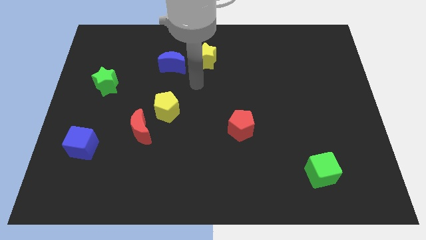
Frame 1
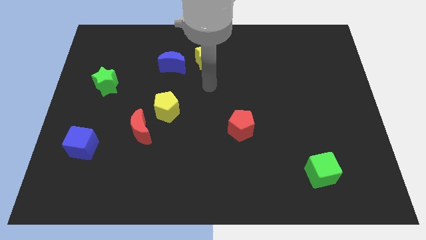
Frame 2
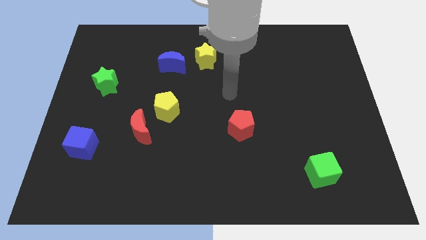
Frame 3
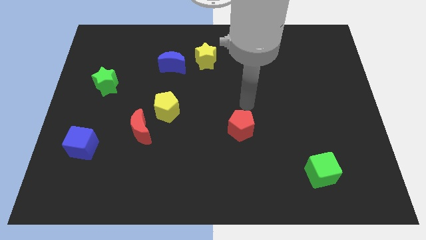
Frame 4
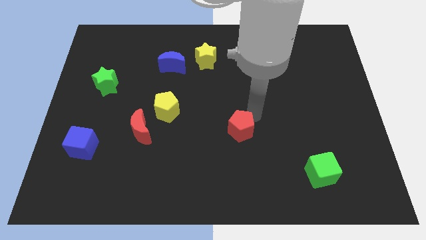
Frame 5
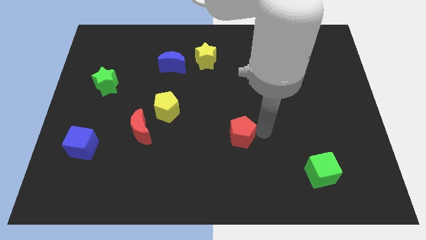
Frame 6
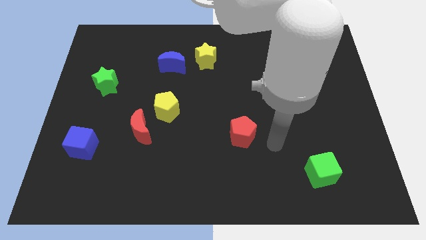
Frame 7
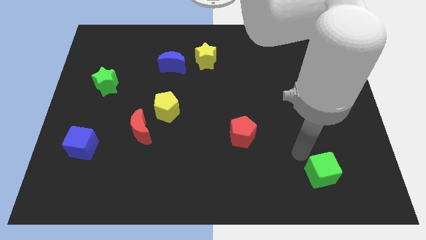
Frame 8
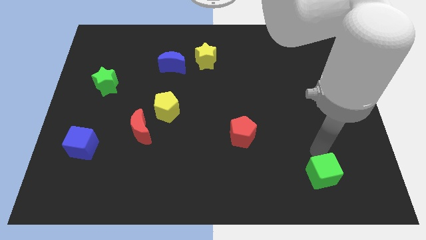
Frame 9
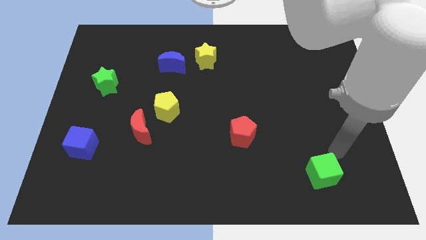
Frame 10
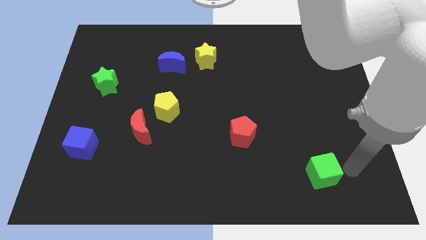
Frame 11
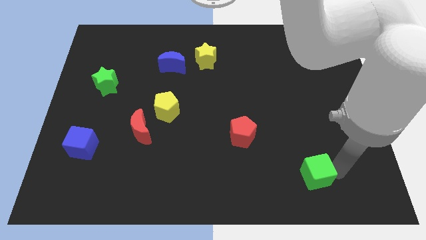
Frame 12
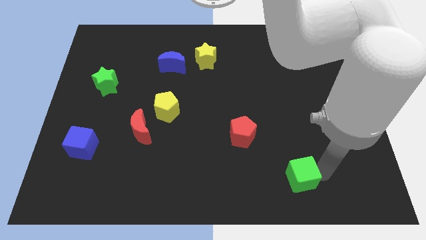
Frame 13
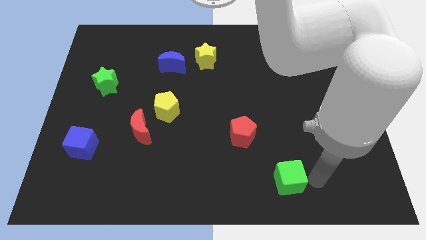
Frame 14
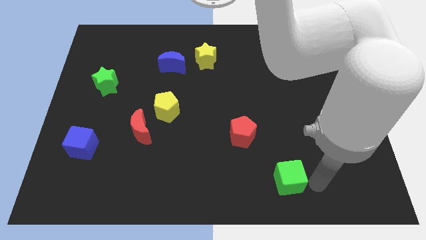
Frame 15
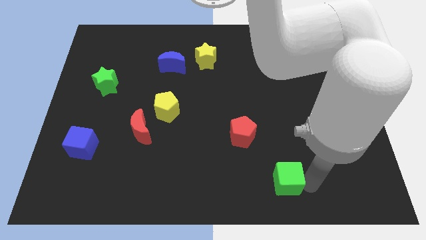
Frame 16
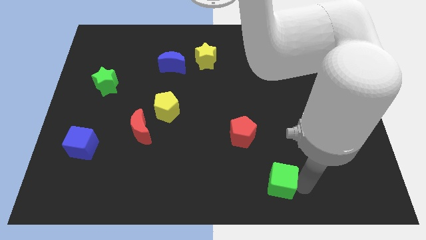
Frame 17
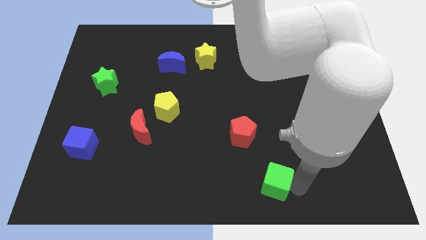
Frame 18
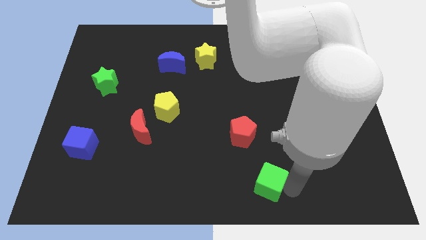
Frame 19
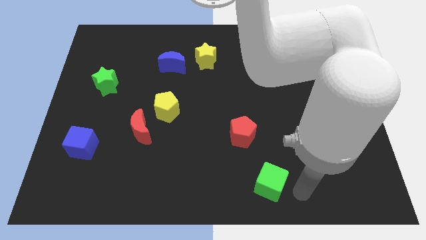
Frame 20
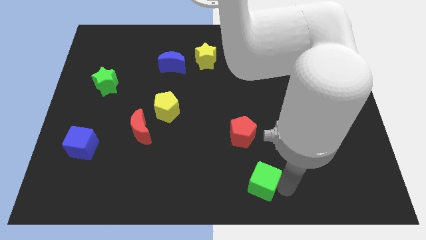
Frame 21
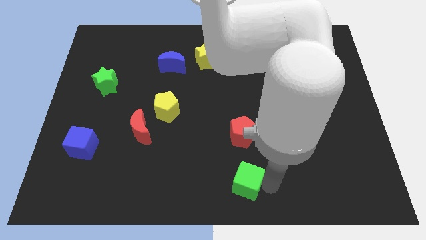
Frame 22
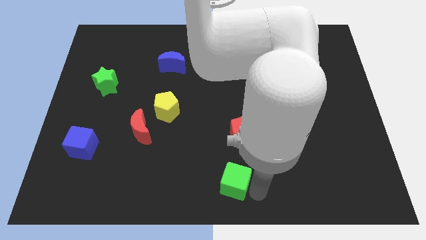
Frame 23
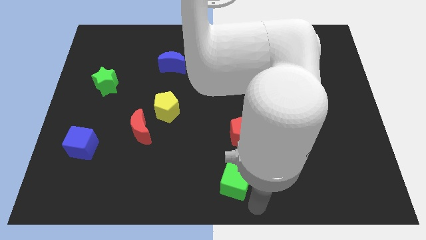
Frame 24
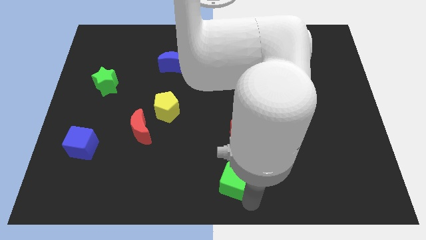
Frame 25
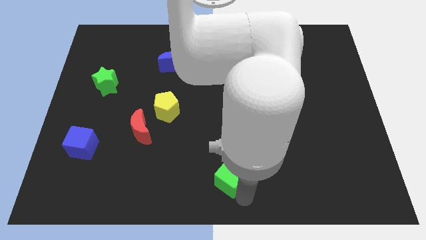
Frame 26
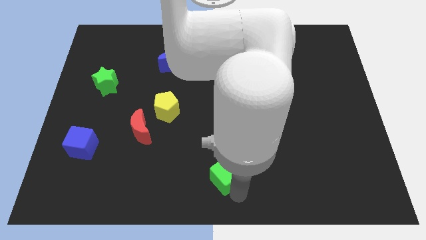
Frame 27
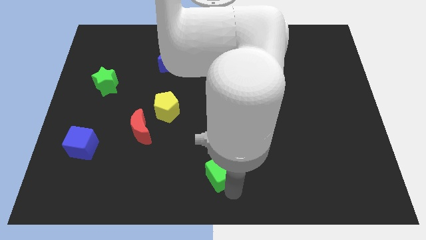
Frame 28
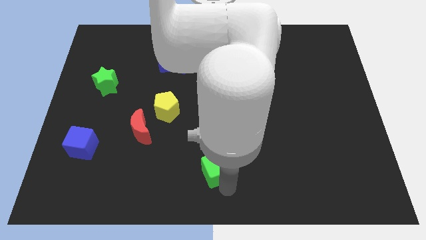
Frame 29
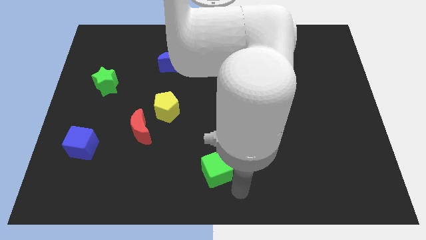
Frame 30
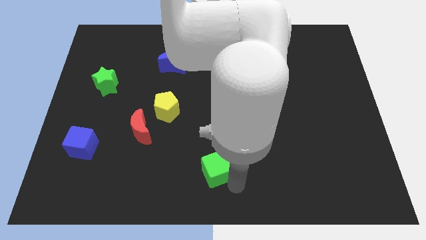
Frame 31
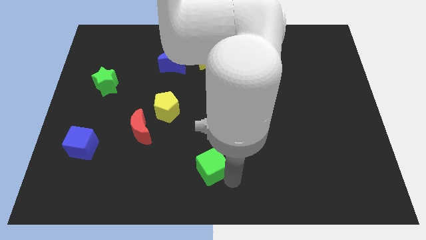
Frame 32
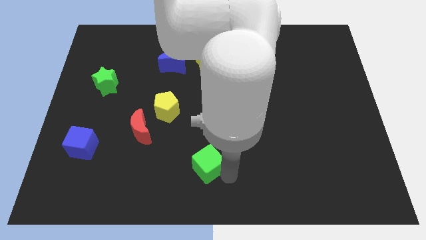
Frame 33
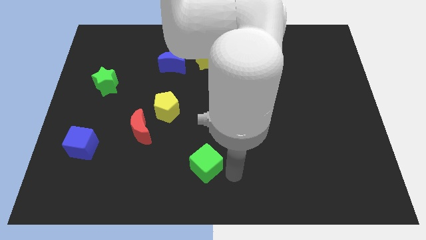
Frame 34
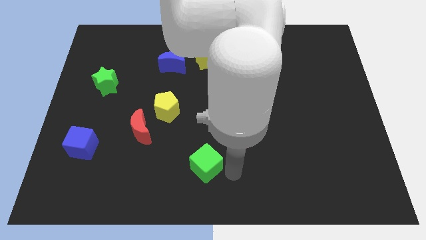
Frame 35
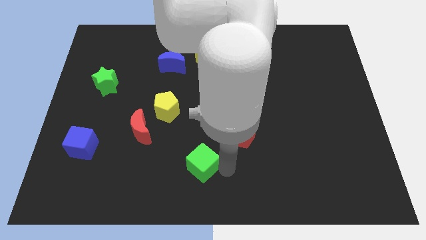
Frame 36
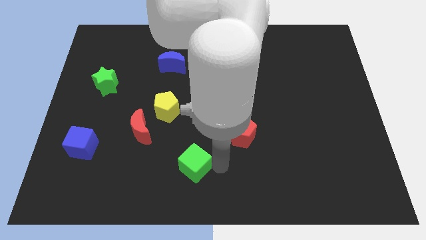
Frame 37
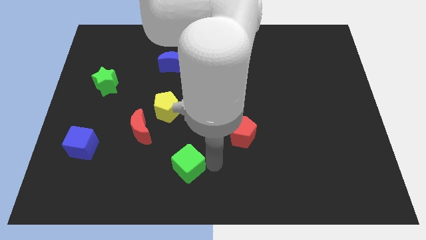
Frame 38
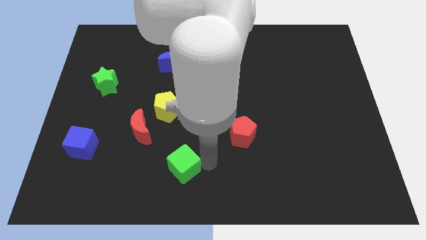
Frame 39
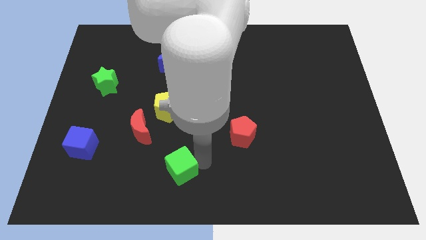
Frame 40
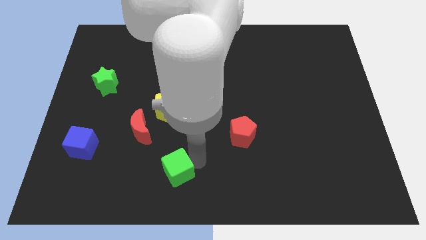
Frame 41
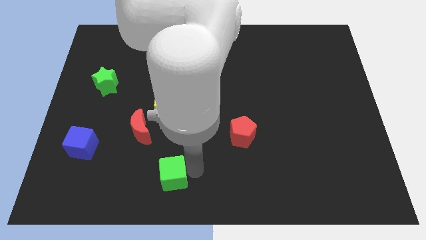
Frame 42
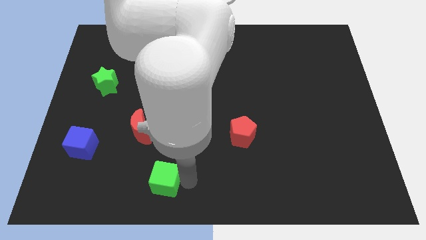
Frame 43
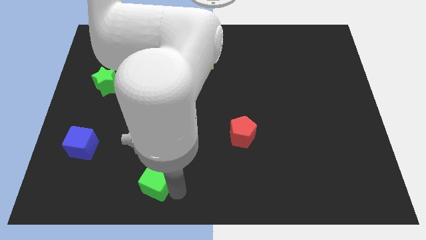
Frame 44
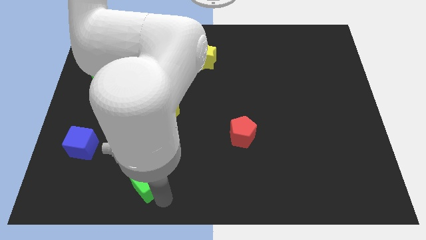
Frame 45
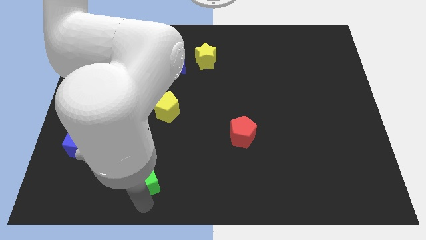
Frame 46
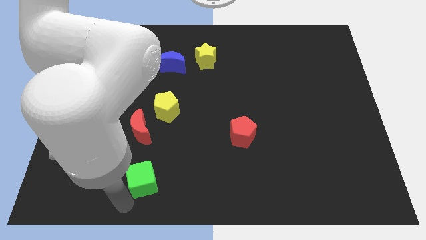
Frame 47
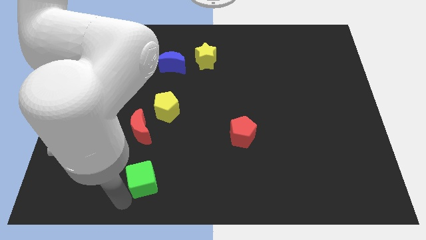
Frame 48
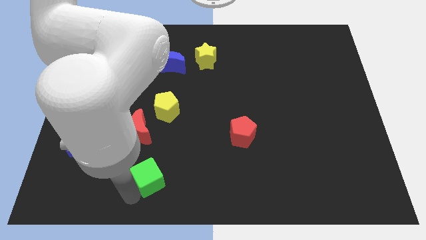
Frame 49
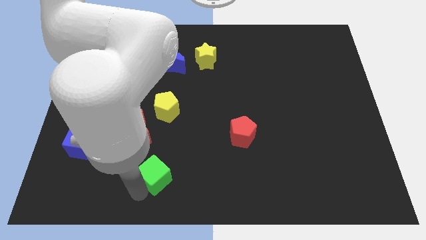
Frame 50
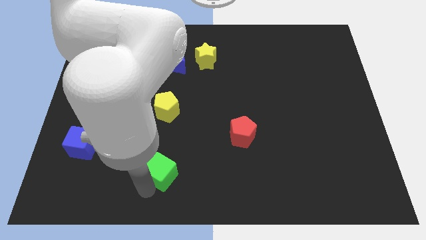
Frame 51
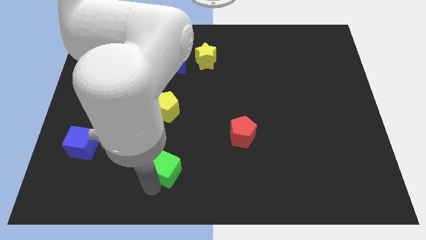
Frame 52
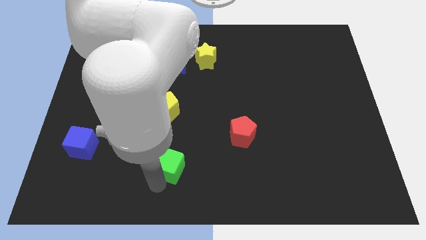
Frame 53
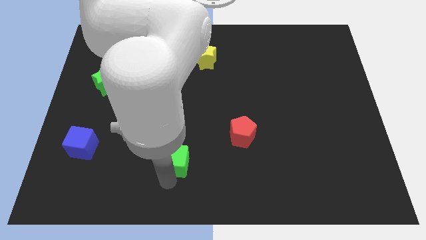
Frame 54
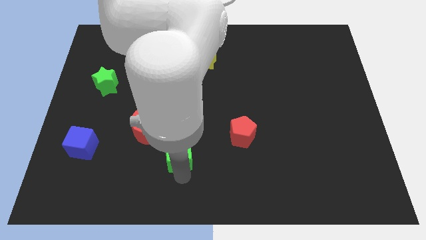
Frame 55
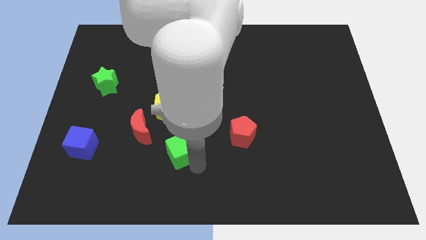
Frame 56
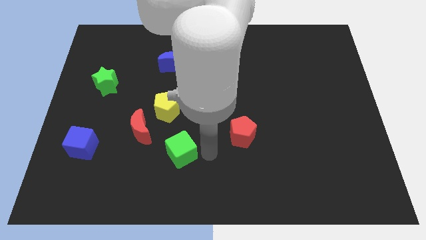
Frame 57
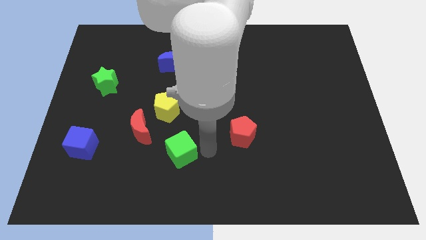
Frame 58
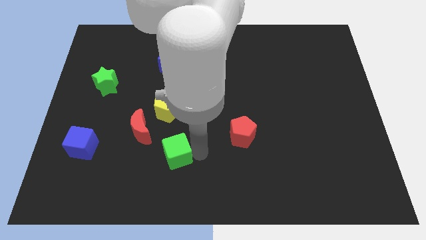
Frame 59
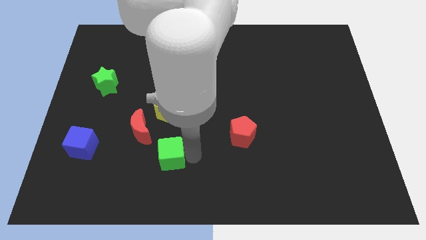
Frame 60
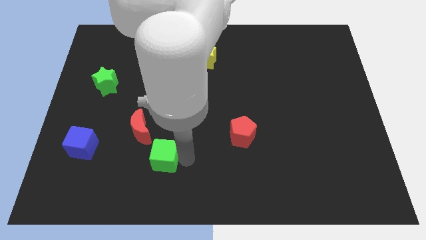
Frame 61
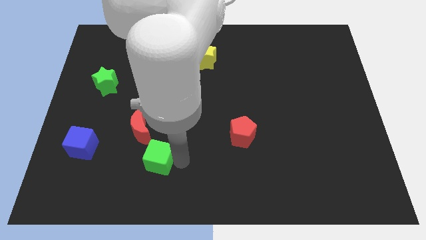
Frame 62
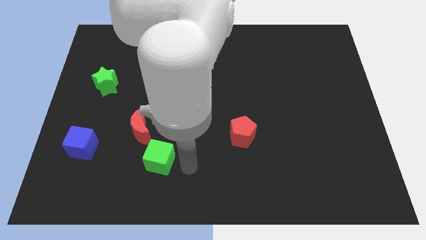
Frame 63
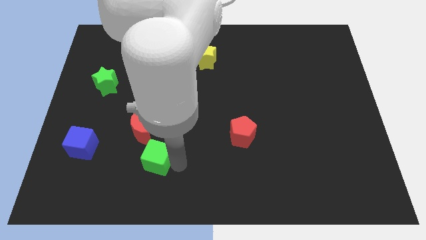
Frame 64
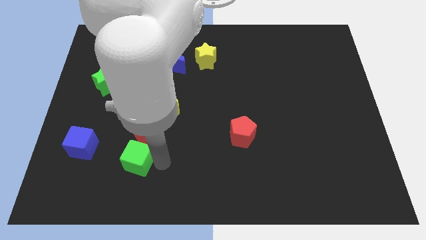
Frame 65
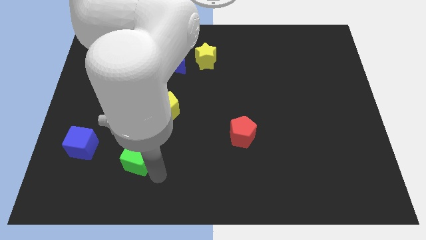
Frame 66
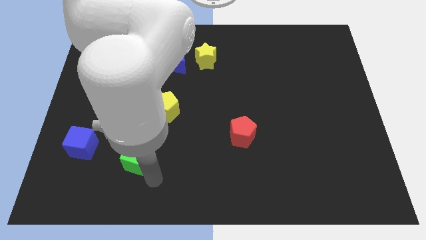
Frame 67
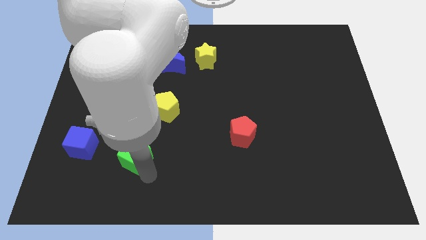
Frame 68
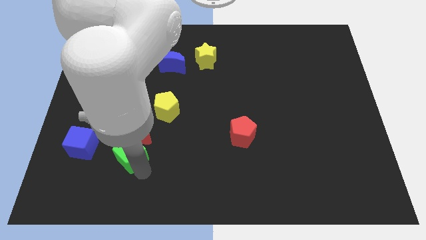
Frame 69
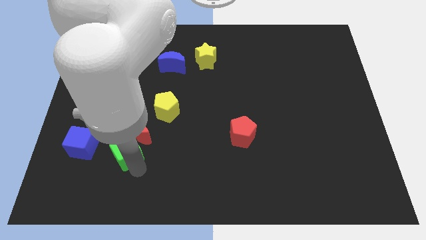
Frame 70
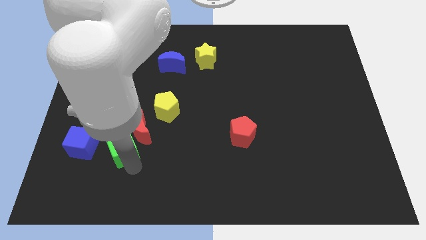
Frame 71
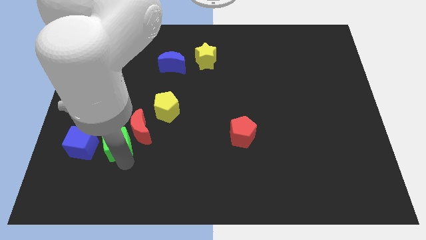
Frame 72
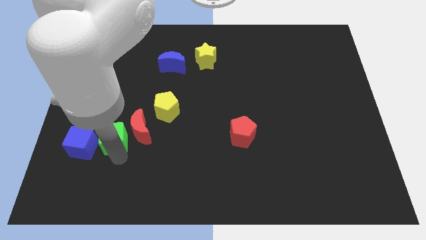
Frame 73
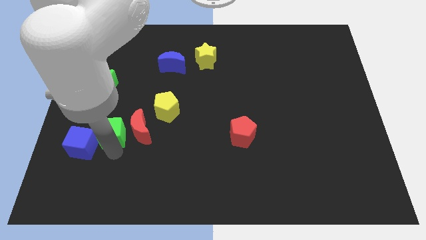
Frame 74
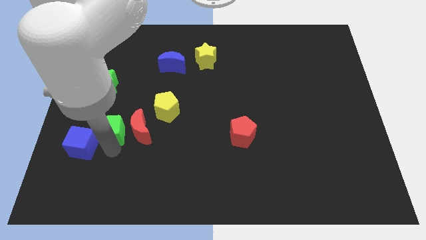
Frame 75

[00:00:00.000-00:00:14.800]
move the green cube to the top left side of the red moon
